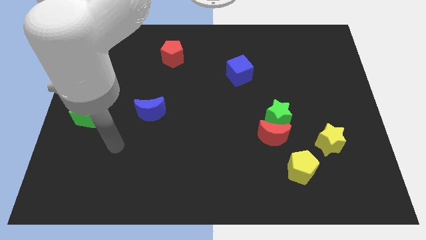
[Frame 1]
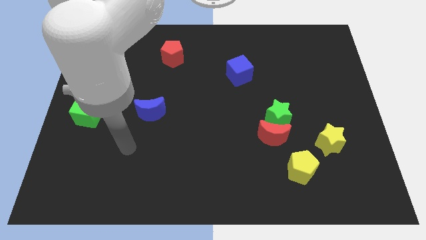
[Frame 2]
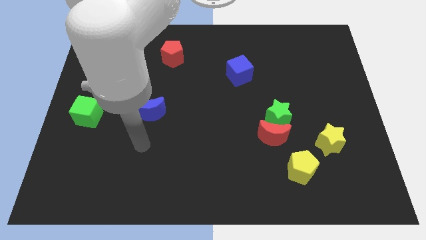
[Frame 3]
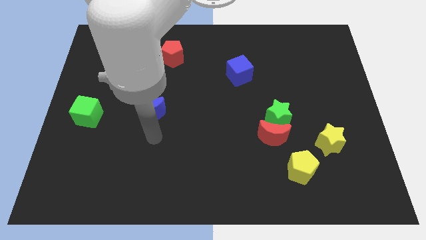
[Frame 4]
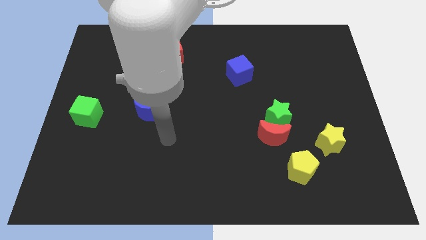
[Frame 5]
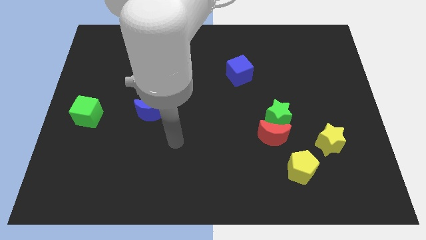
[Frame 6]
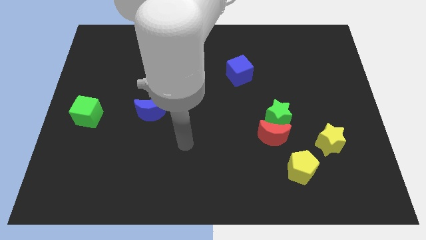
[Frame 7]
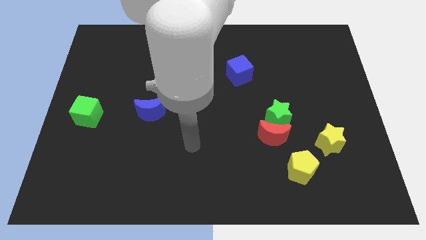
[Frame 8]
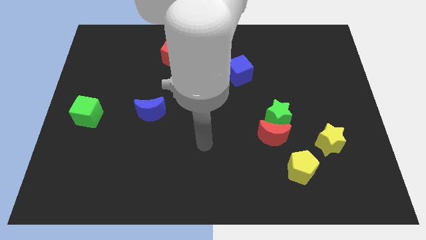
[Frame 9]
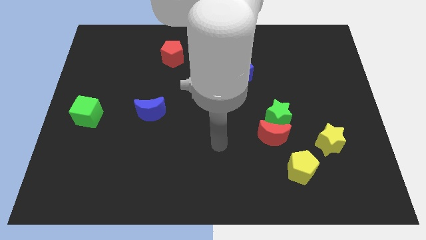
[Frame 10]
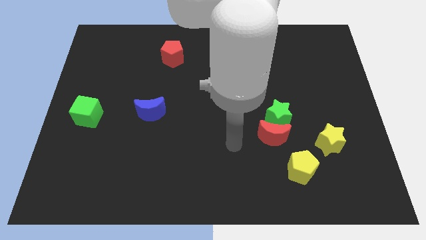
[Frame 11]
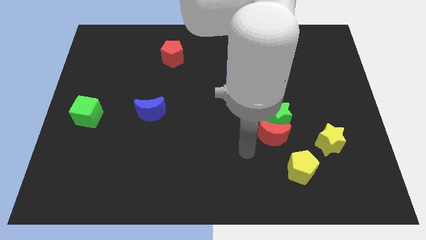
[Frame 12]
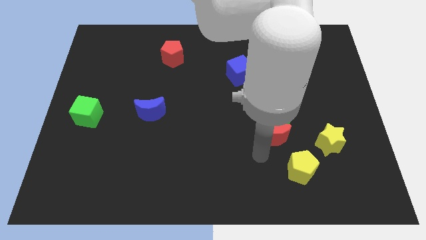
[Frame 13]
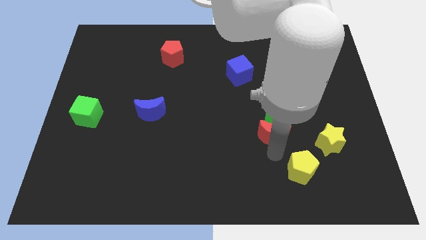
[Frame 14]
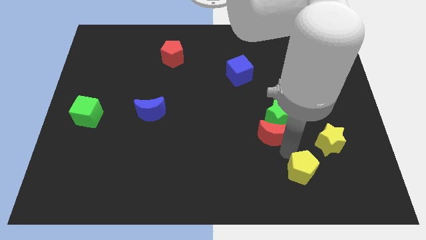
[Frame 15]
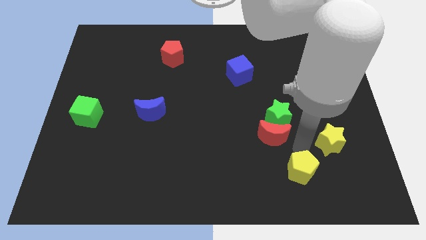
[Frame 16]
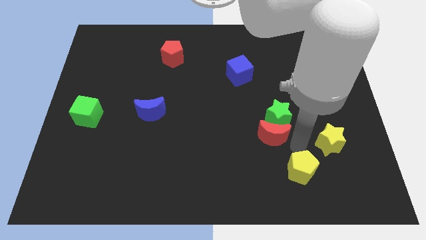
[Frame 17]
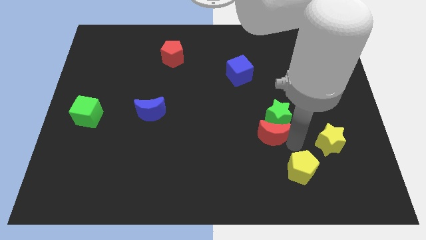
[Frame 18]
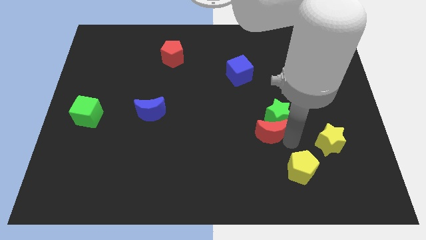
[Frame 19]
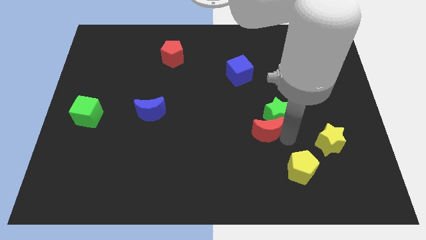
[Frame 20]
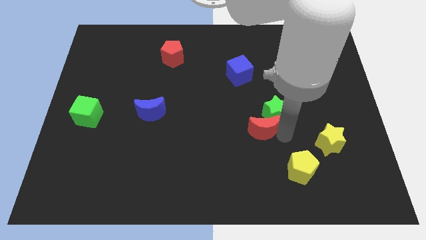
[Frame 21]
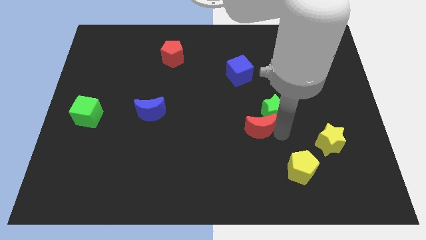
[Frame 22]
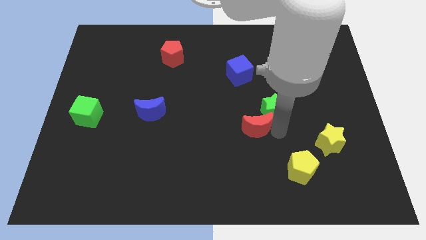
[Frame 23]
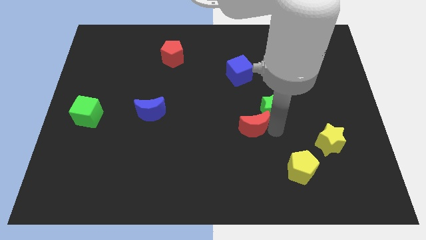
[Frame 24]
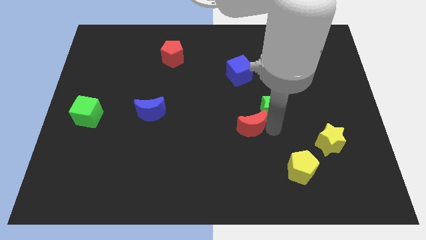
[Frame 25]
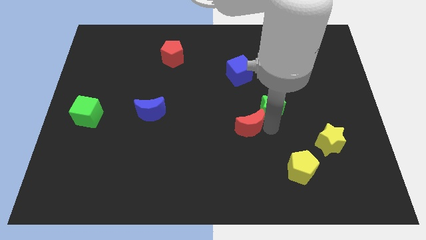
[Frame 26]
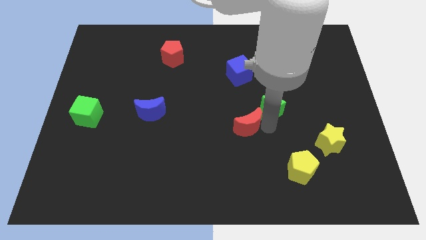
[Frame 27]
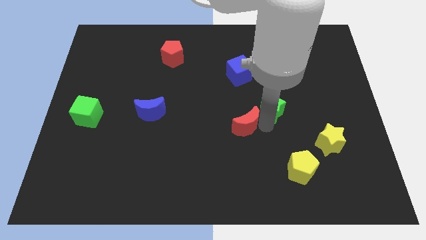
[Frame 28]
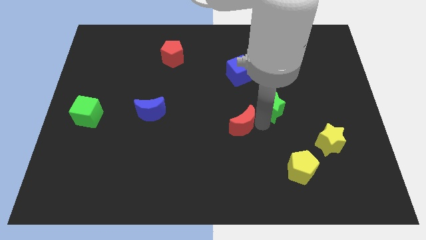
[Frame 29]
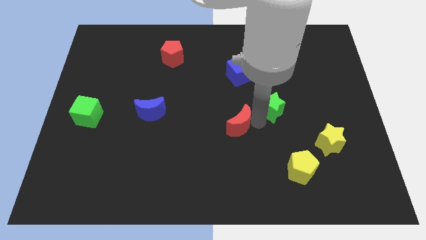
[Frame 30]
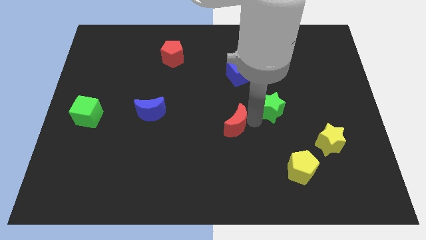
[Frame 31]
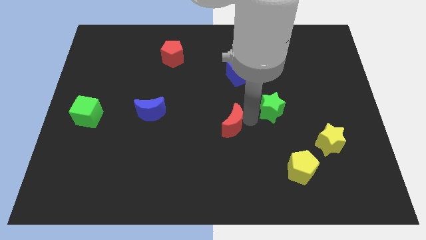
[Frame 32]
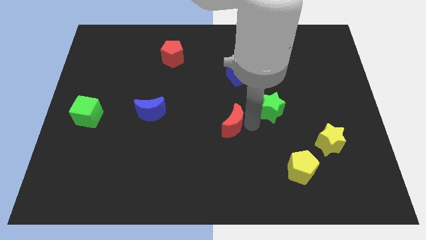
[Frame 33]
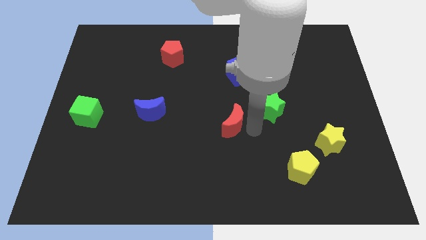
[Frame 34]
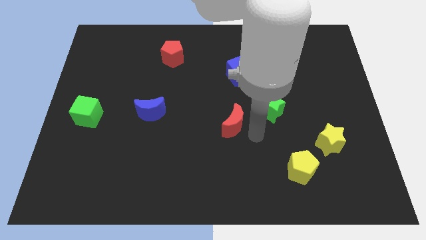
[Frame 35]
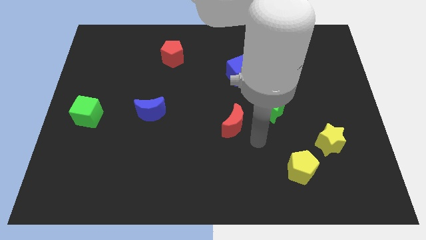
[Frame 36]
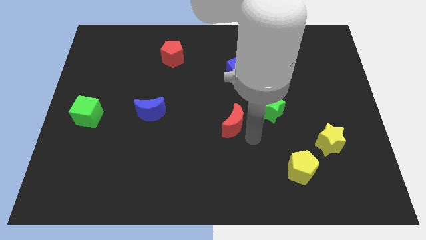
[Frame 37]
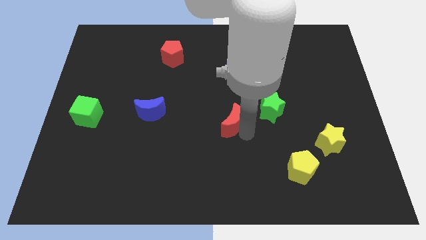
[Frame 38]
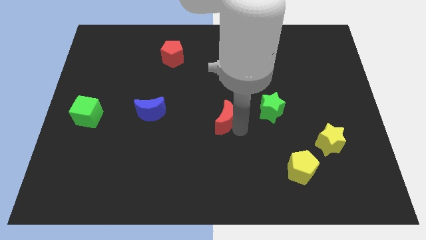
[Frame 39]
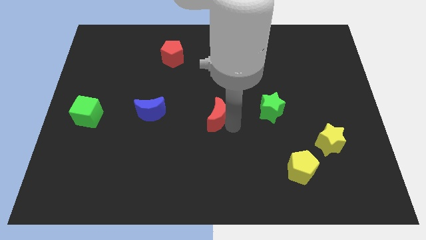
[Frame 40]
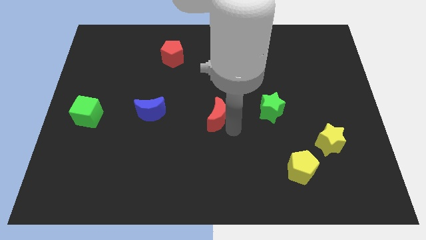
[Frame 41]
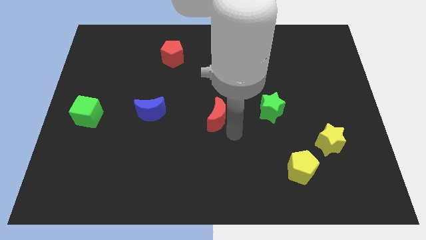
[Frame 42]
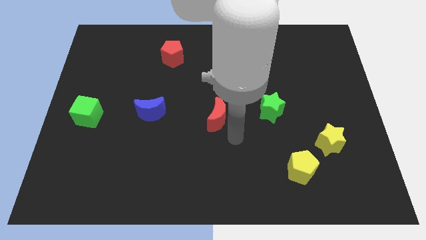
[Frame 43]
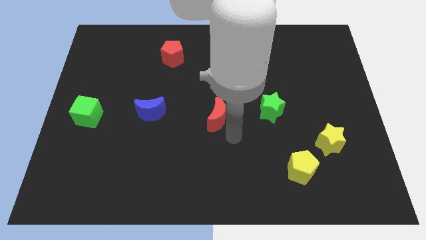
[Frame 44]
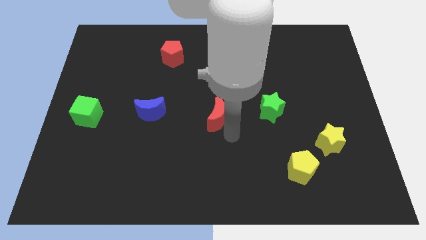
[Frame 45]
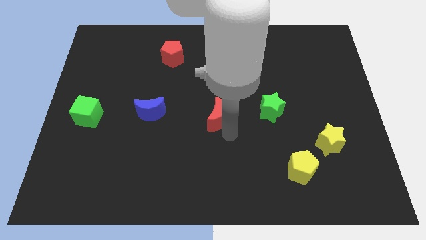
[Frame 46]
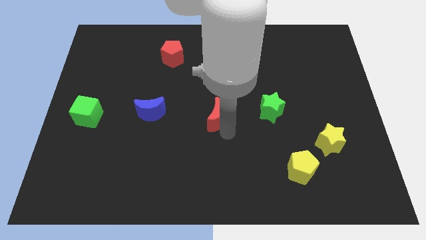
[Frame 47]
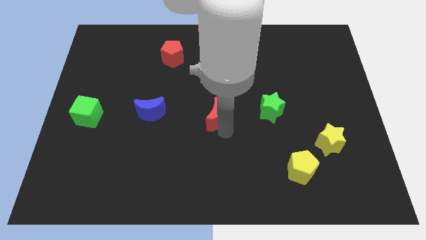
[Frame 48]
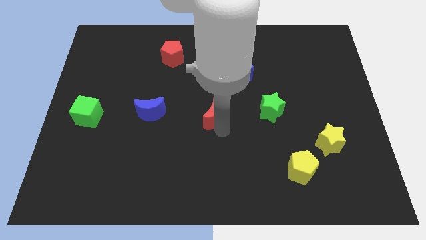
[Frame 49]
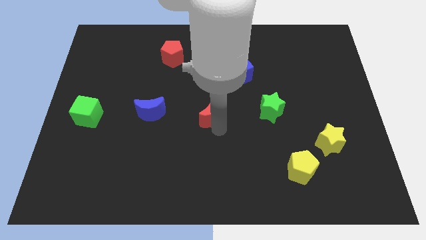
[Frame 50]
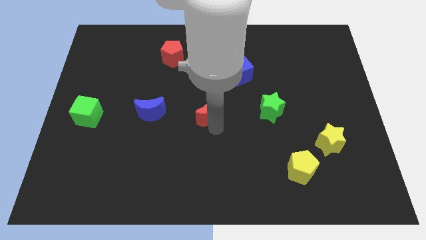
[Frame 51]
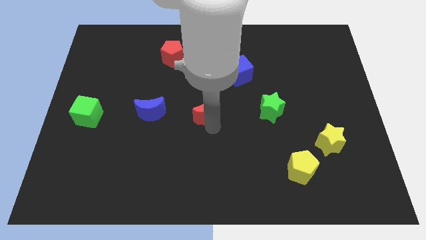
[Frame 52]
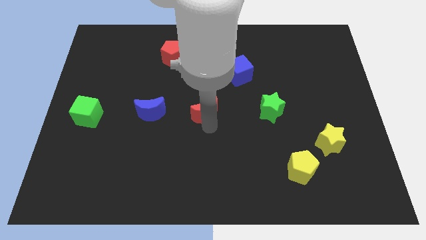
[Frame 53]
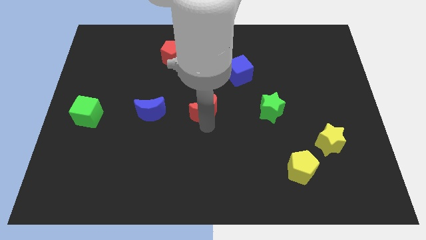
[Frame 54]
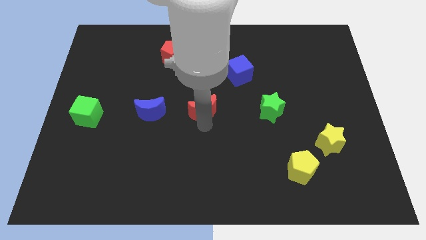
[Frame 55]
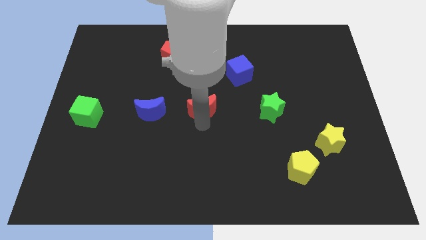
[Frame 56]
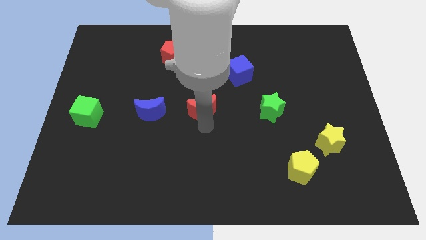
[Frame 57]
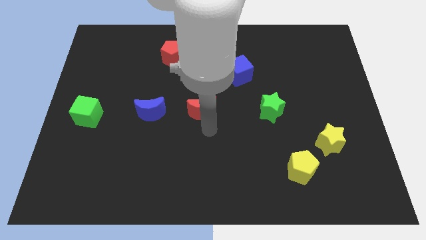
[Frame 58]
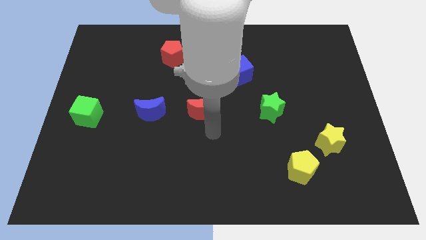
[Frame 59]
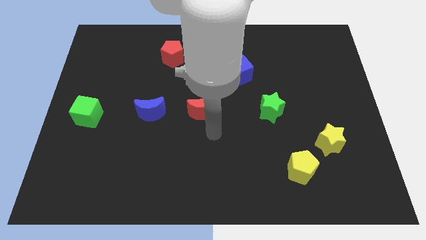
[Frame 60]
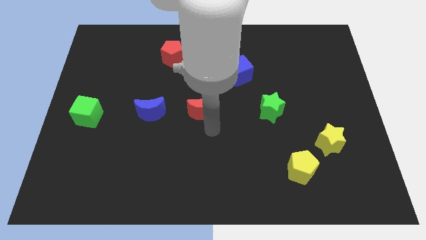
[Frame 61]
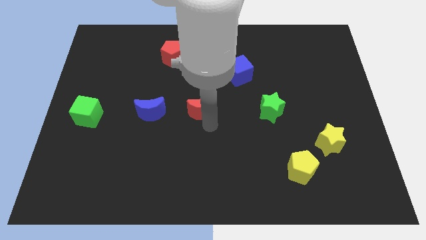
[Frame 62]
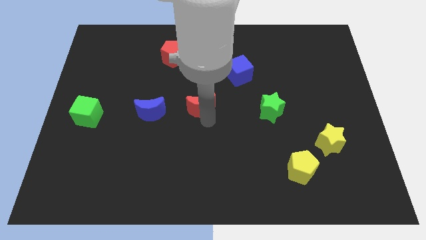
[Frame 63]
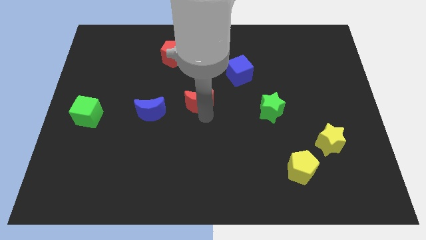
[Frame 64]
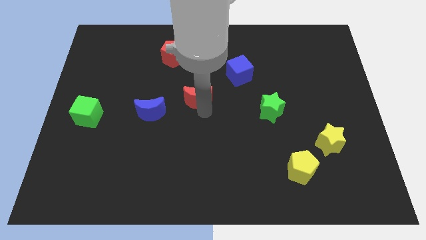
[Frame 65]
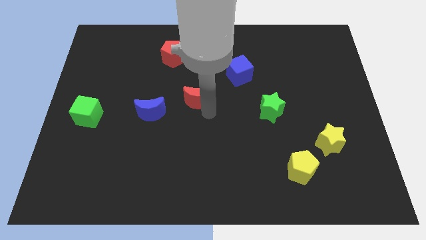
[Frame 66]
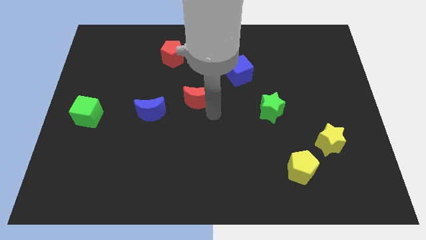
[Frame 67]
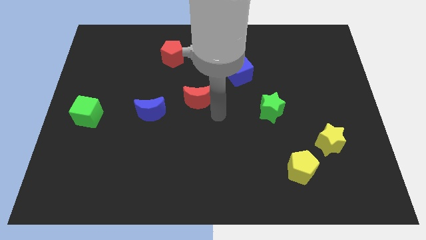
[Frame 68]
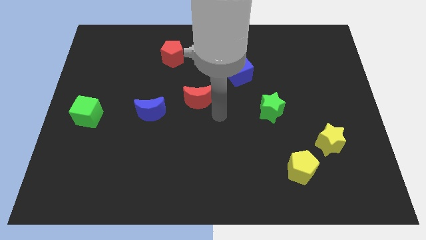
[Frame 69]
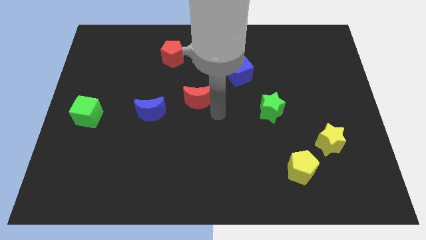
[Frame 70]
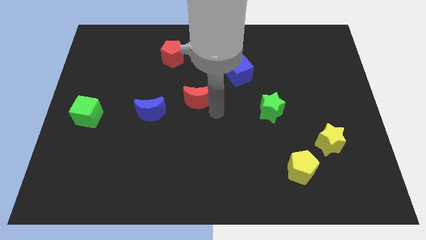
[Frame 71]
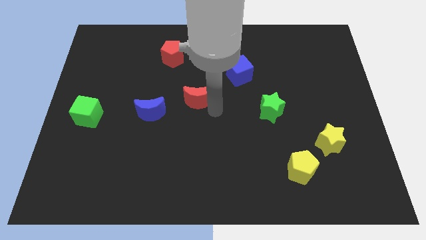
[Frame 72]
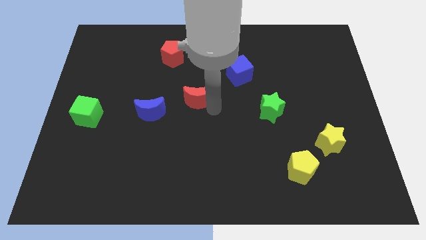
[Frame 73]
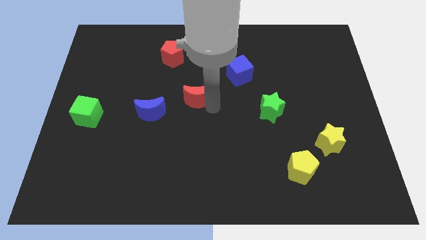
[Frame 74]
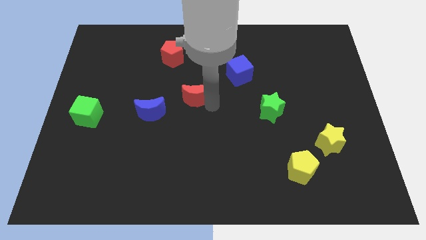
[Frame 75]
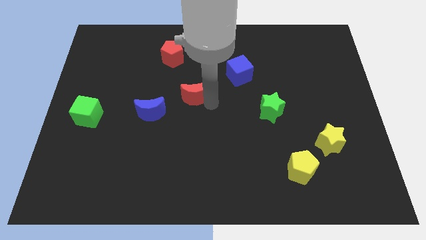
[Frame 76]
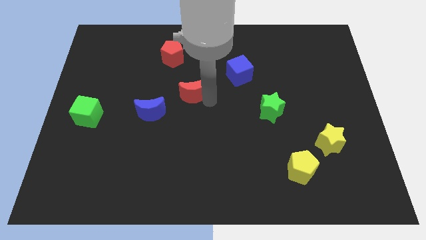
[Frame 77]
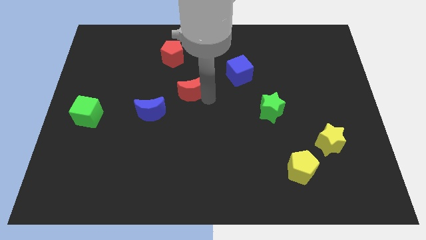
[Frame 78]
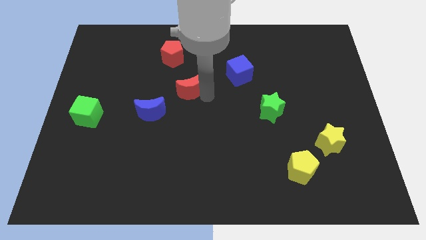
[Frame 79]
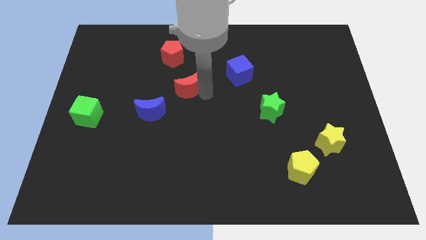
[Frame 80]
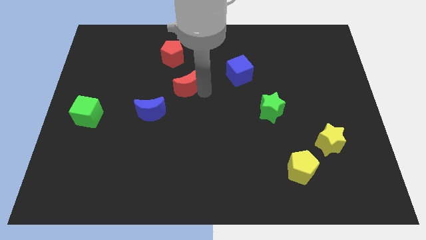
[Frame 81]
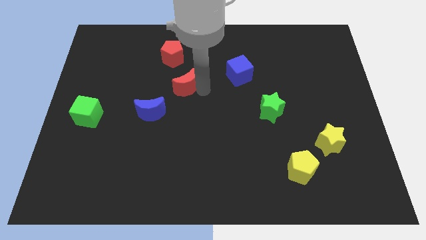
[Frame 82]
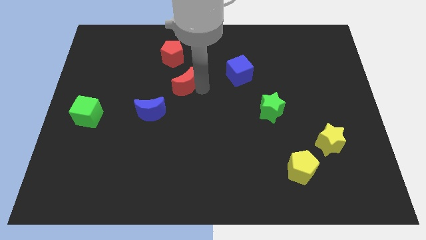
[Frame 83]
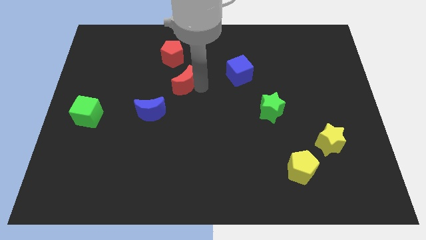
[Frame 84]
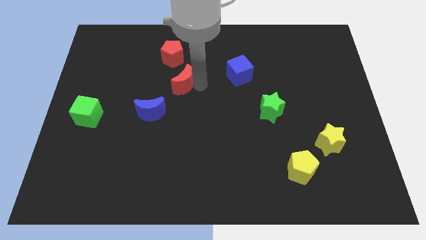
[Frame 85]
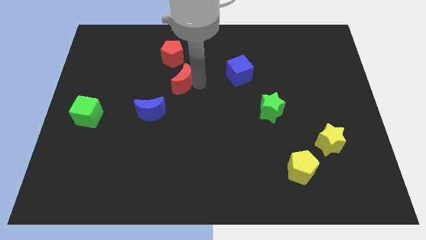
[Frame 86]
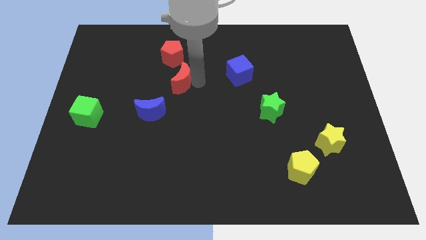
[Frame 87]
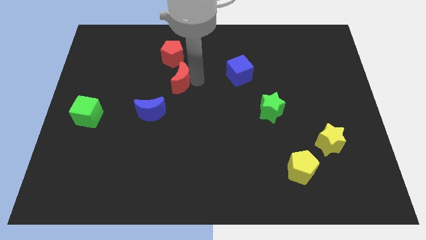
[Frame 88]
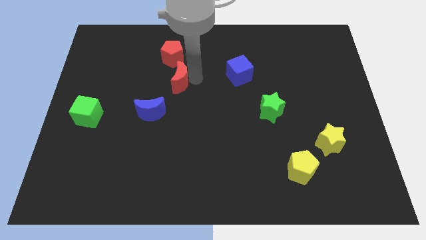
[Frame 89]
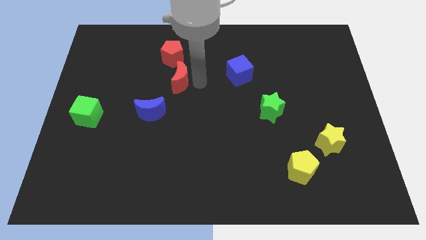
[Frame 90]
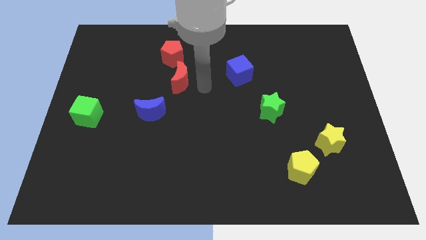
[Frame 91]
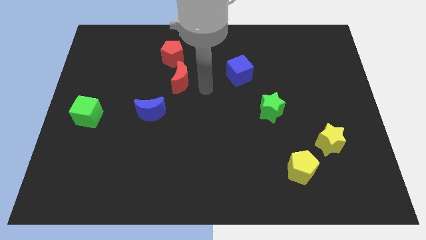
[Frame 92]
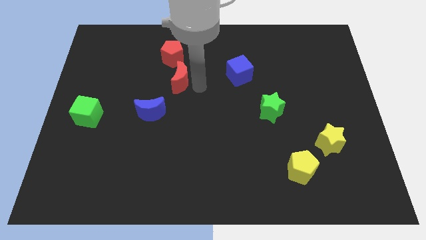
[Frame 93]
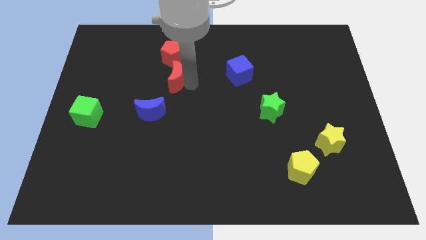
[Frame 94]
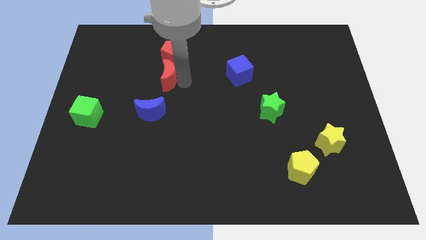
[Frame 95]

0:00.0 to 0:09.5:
slide the red moon diagonally down and to the left of the red pentagon
